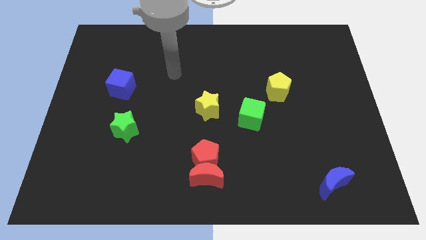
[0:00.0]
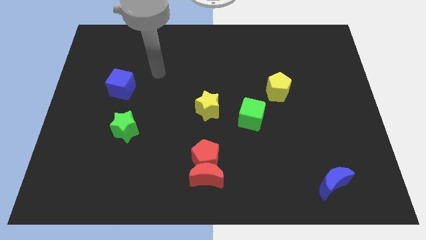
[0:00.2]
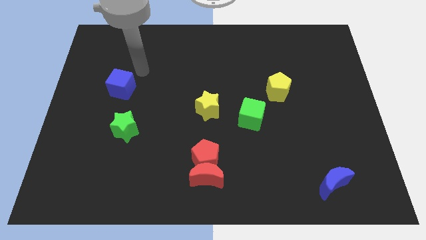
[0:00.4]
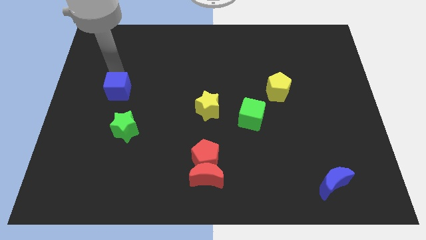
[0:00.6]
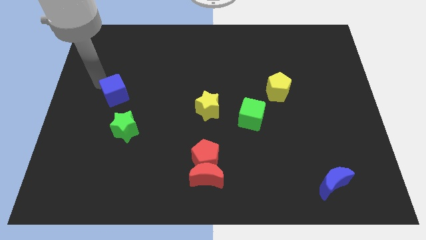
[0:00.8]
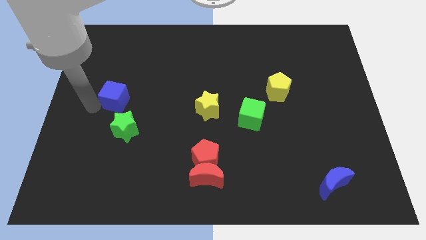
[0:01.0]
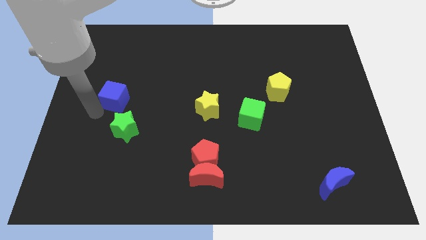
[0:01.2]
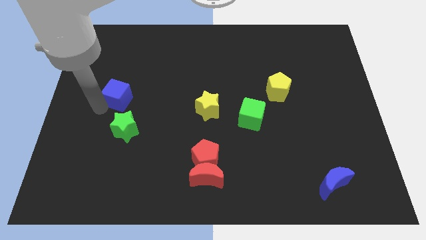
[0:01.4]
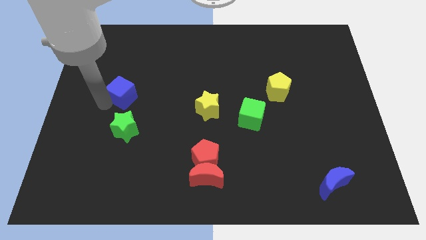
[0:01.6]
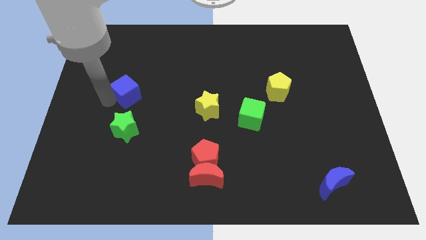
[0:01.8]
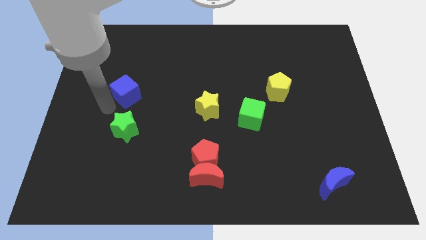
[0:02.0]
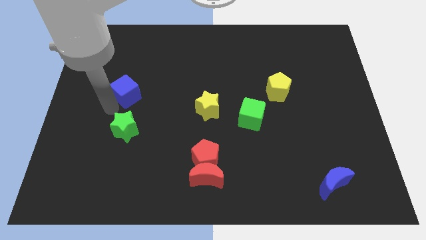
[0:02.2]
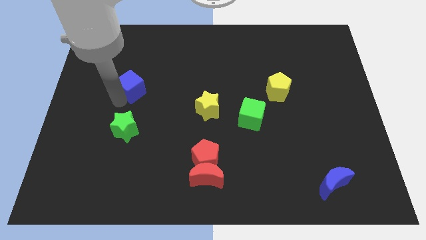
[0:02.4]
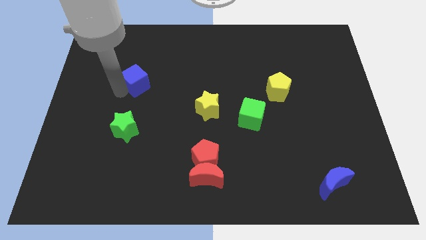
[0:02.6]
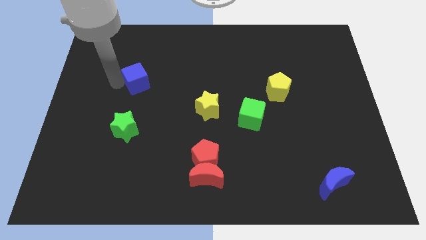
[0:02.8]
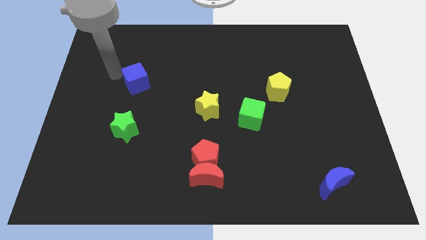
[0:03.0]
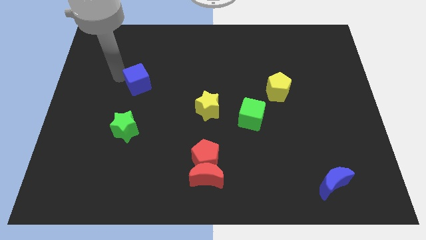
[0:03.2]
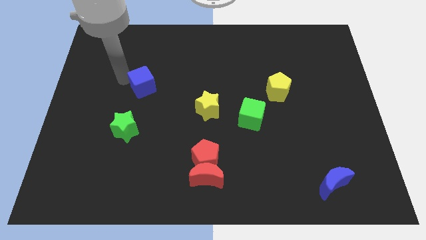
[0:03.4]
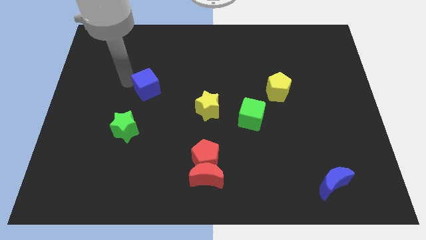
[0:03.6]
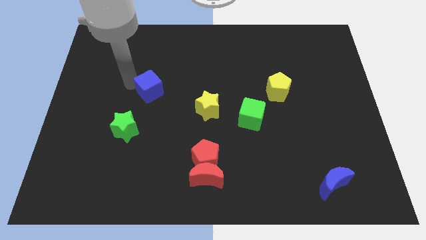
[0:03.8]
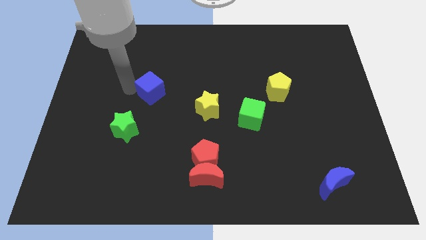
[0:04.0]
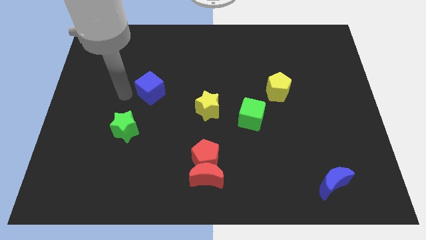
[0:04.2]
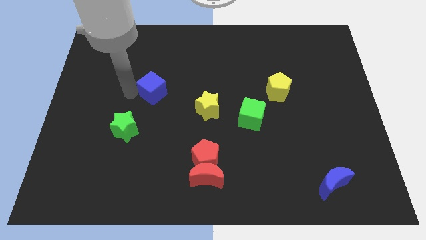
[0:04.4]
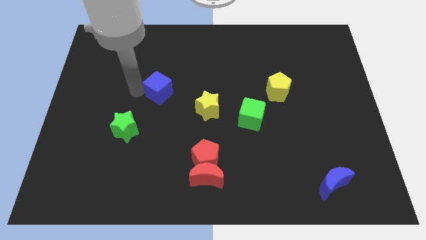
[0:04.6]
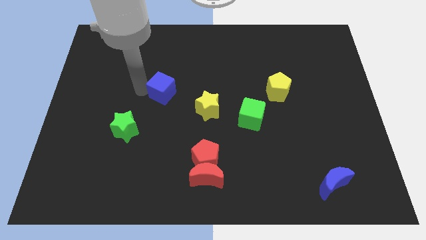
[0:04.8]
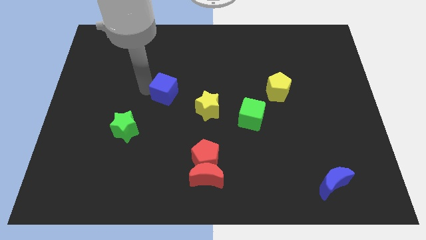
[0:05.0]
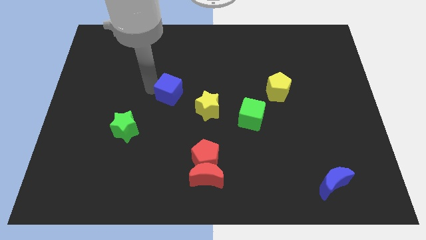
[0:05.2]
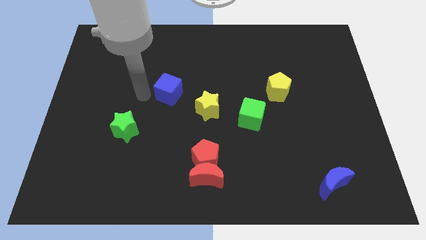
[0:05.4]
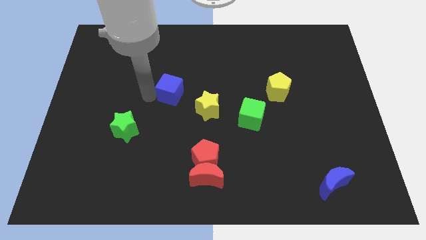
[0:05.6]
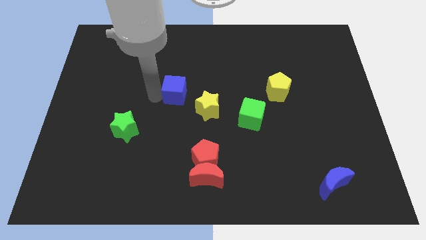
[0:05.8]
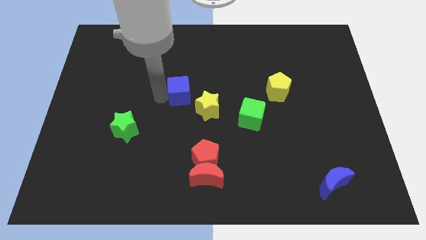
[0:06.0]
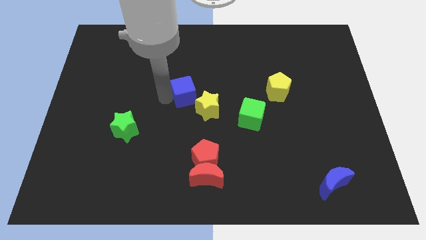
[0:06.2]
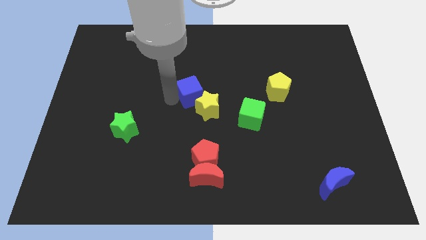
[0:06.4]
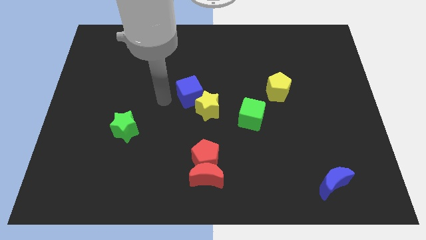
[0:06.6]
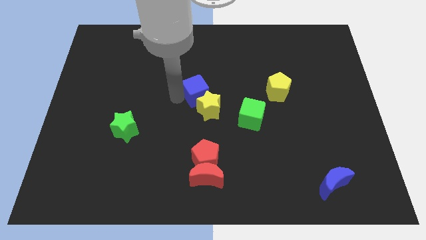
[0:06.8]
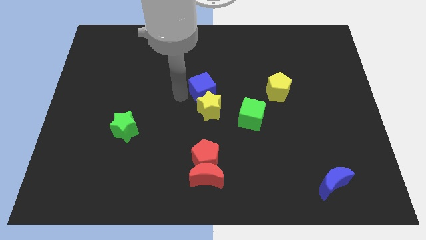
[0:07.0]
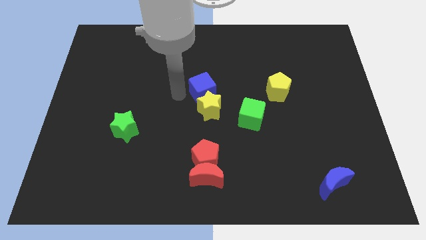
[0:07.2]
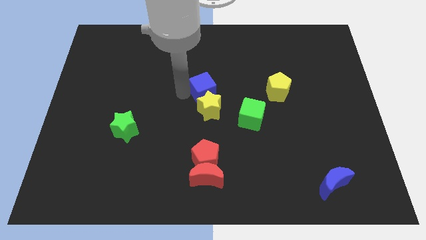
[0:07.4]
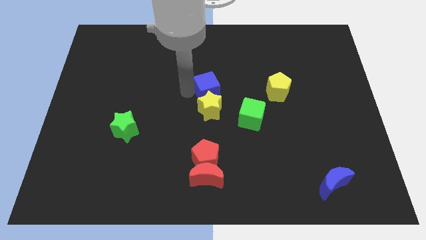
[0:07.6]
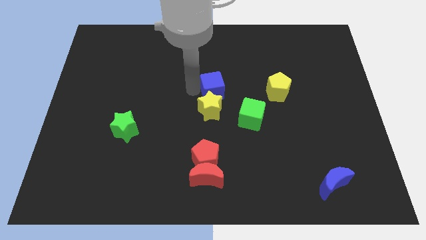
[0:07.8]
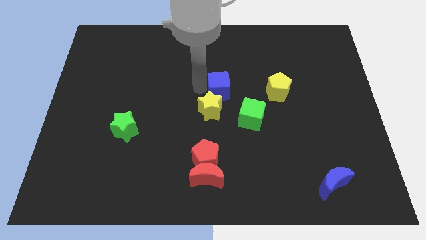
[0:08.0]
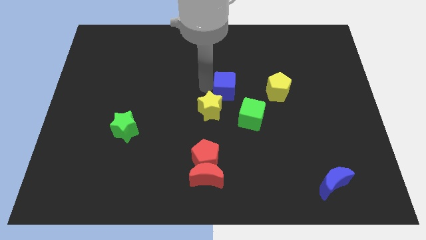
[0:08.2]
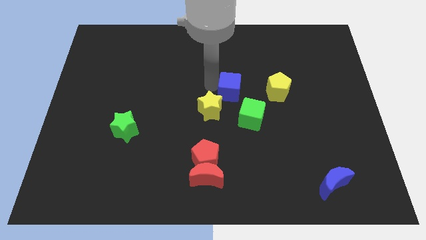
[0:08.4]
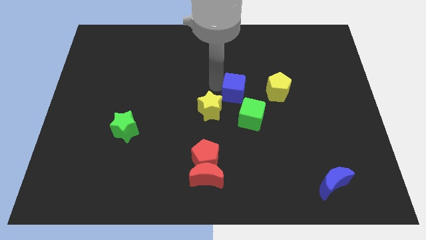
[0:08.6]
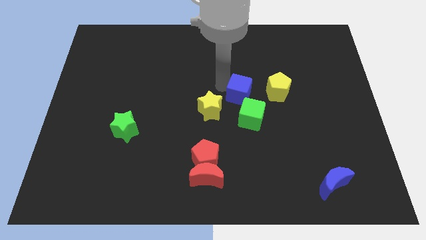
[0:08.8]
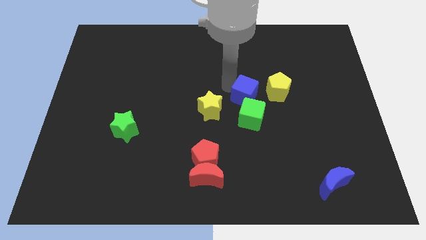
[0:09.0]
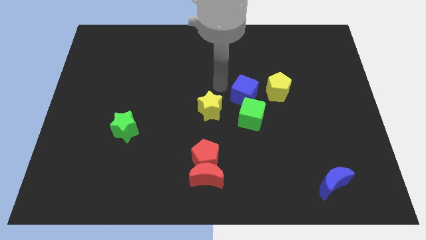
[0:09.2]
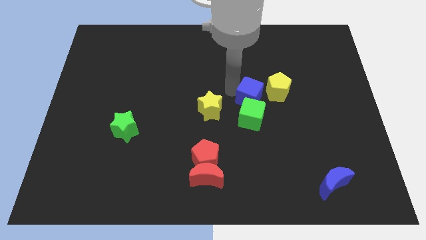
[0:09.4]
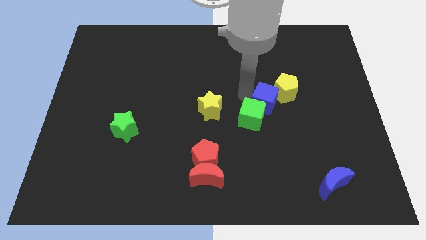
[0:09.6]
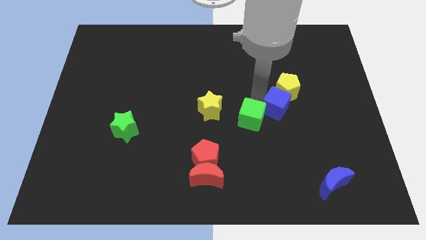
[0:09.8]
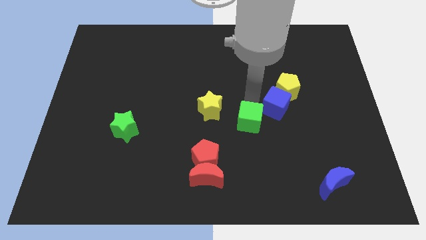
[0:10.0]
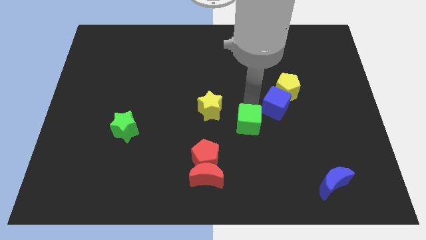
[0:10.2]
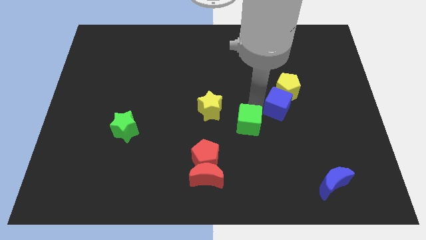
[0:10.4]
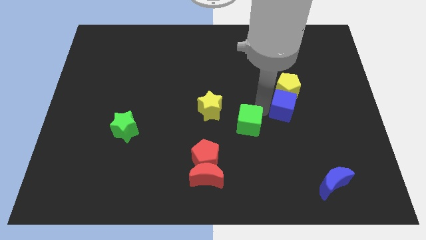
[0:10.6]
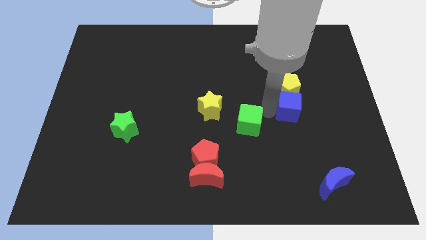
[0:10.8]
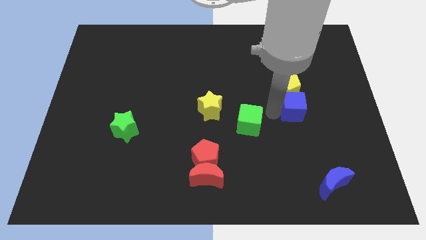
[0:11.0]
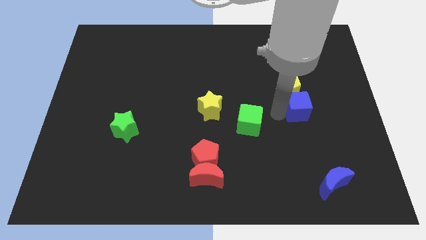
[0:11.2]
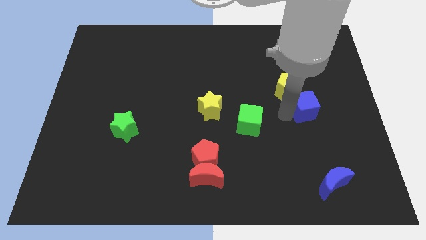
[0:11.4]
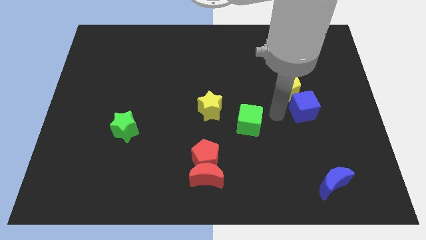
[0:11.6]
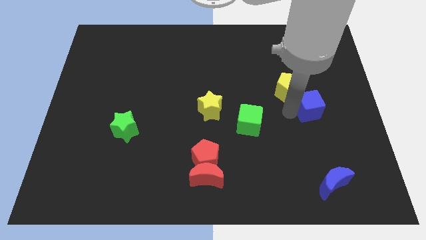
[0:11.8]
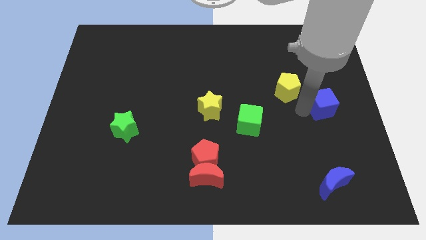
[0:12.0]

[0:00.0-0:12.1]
slide the blue cube to the right side of the board
